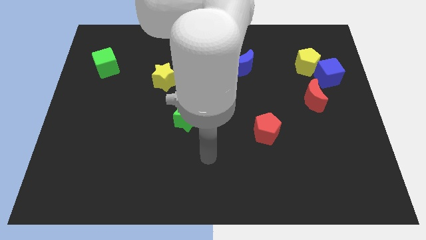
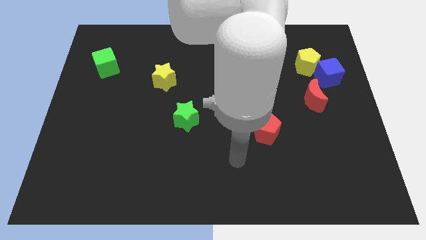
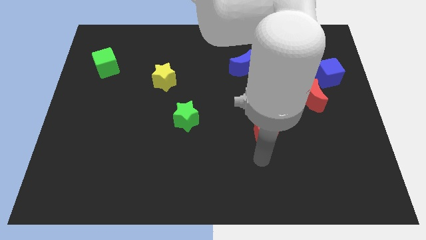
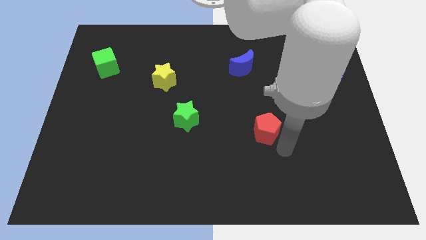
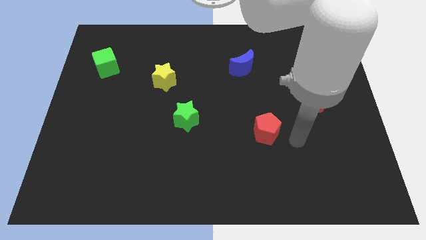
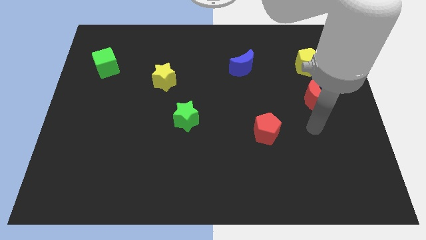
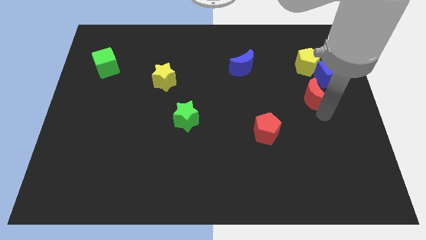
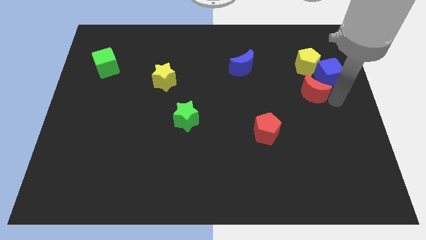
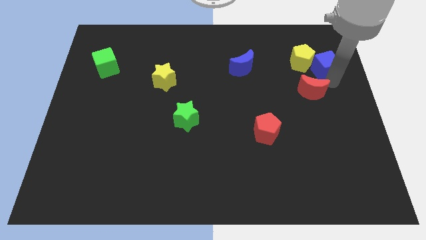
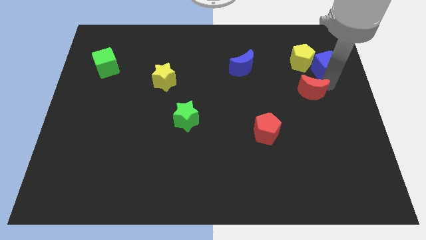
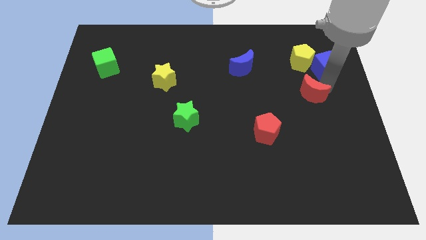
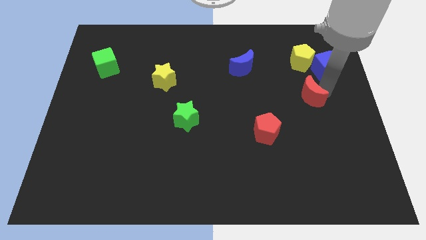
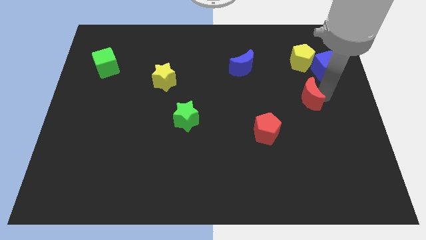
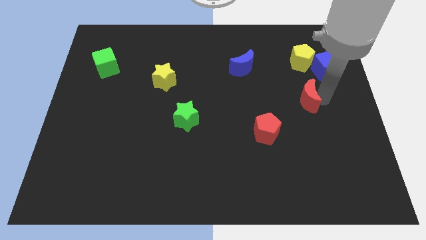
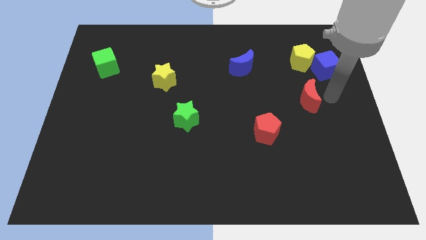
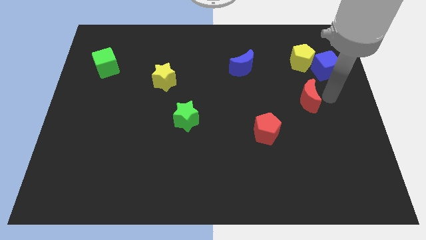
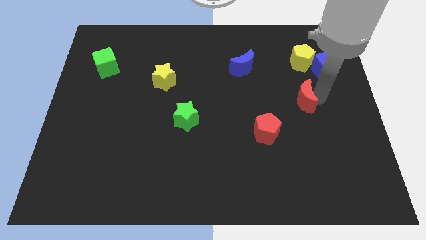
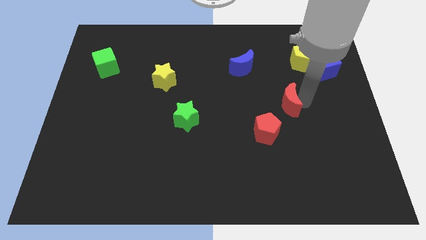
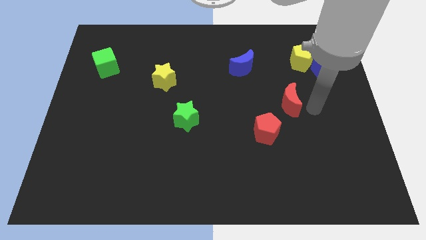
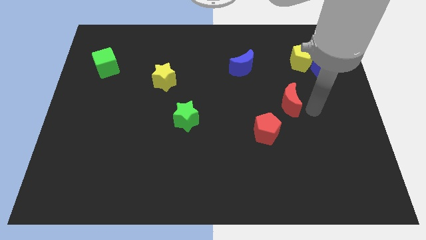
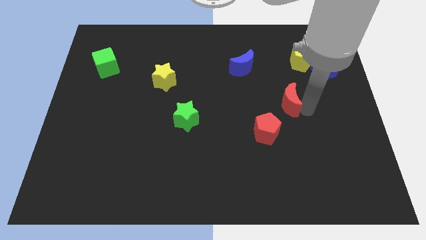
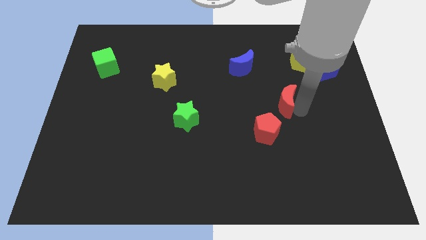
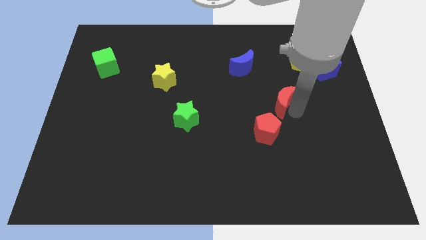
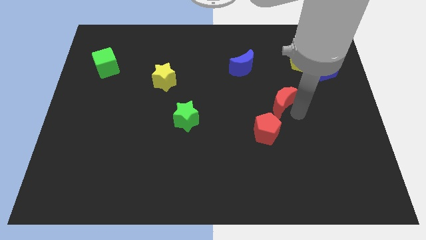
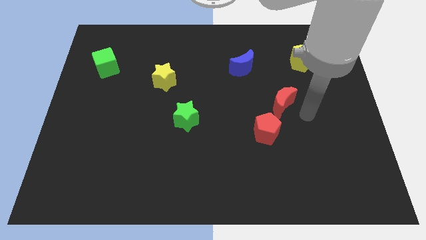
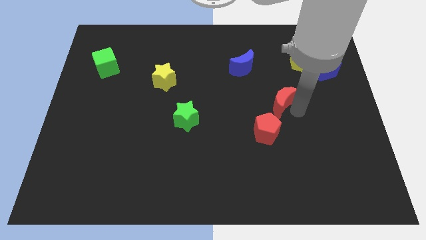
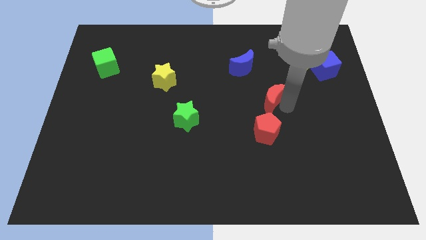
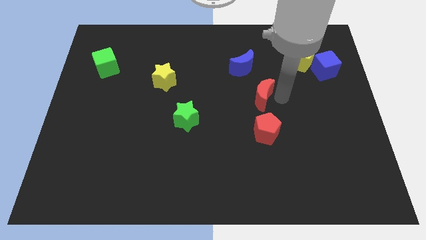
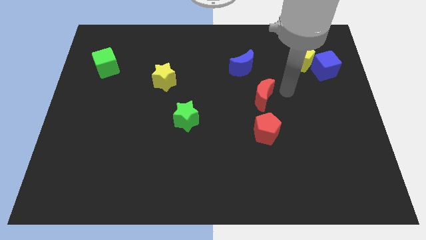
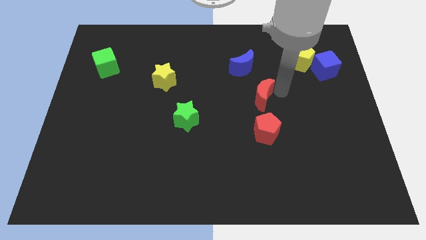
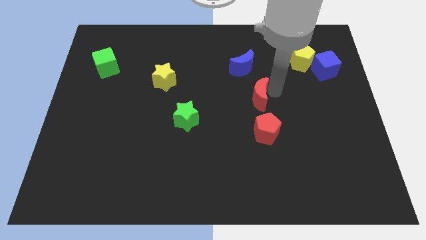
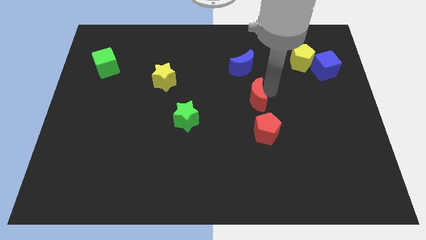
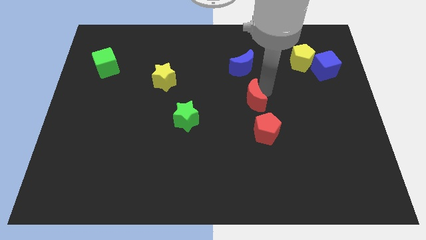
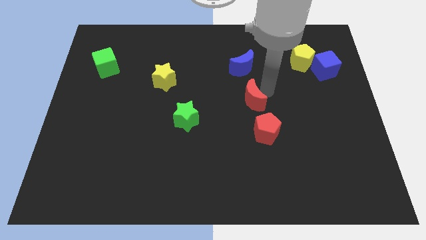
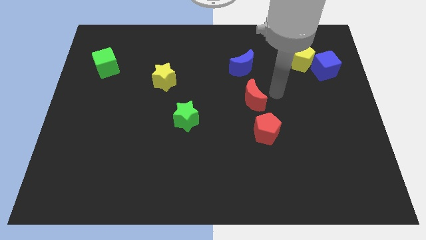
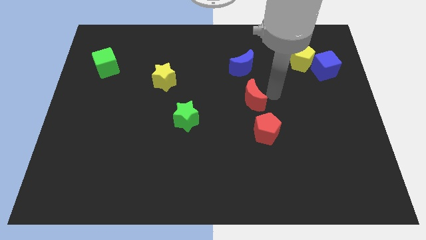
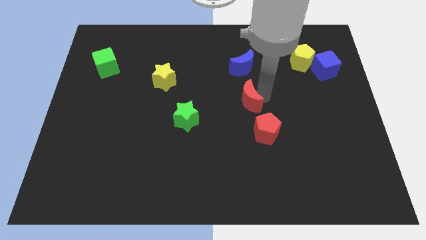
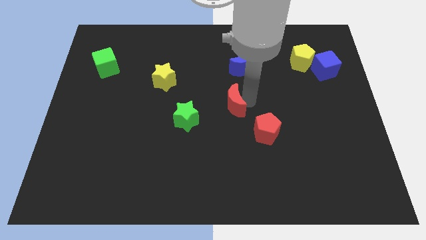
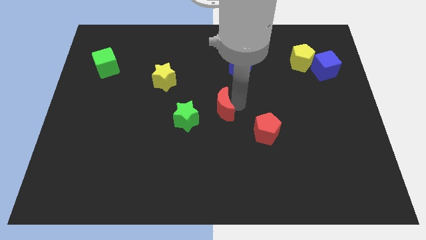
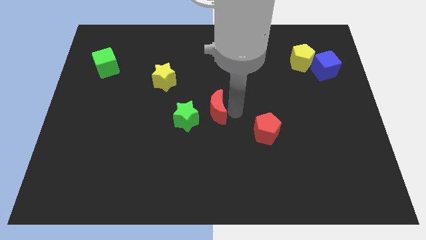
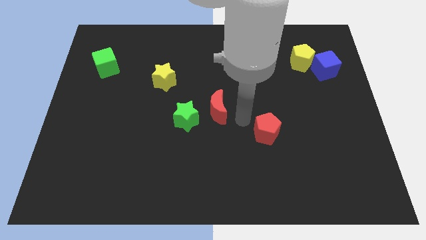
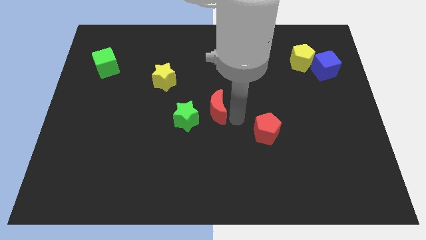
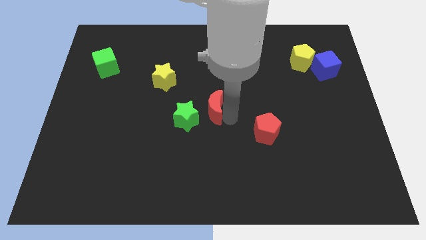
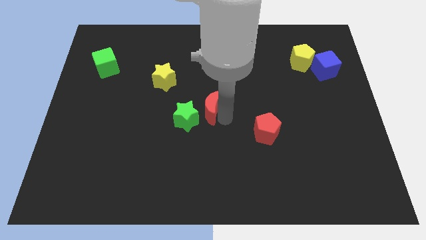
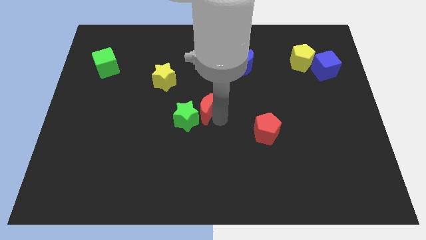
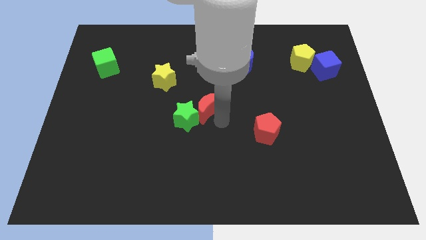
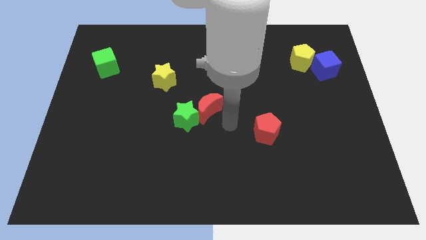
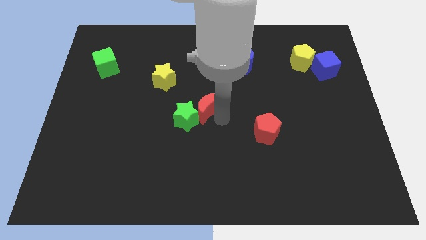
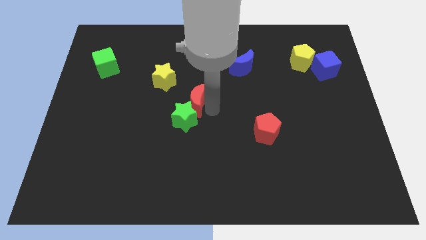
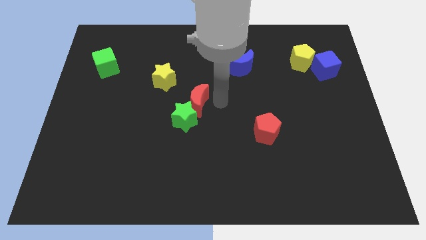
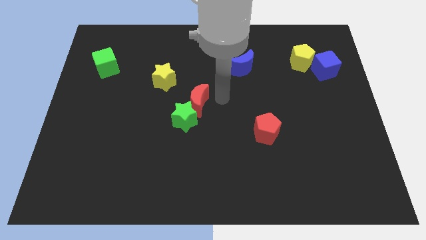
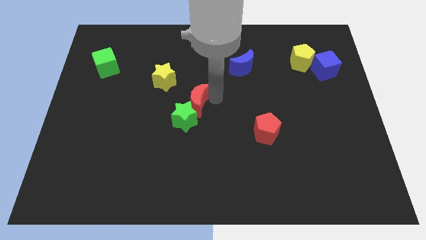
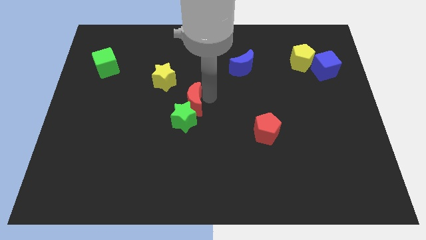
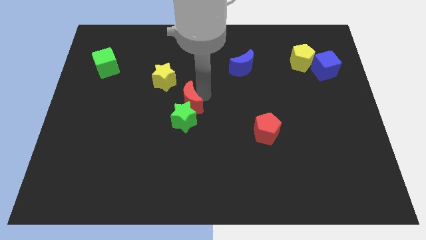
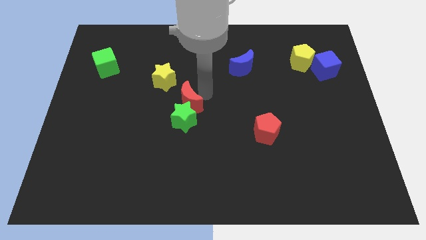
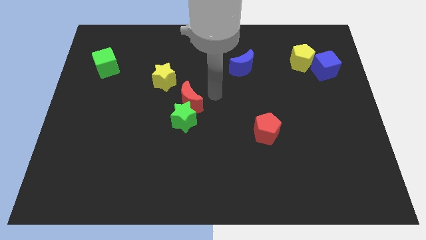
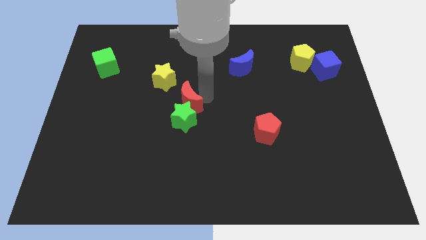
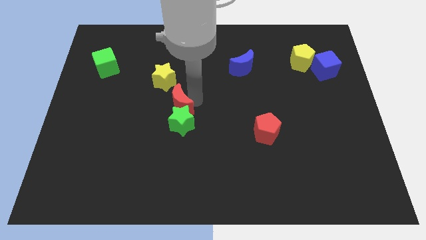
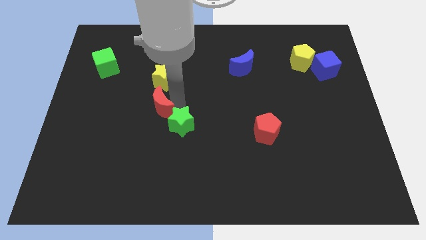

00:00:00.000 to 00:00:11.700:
move the red moon just left of the green star

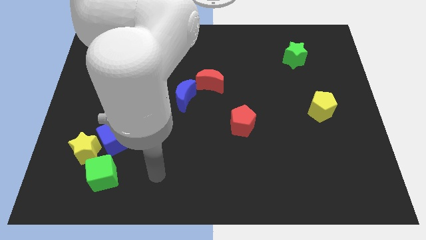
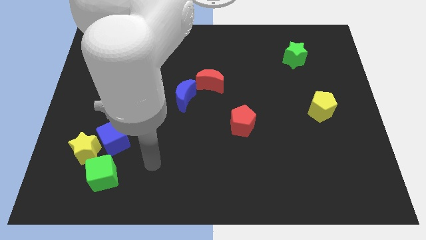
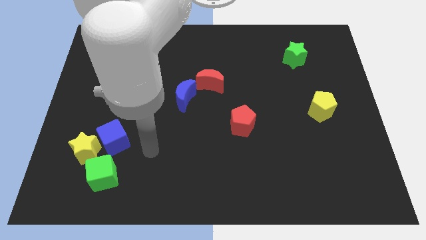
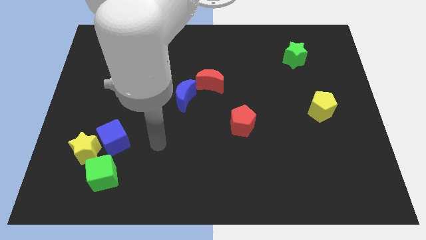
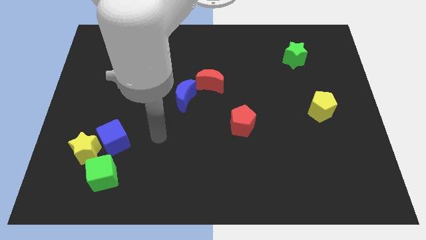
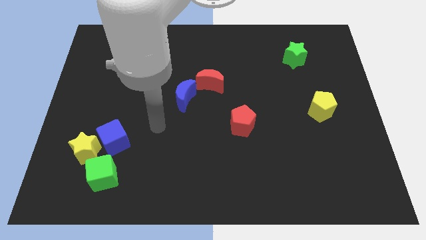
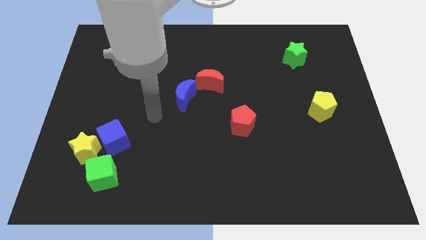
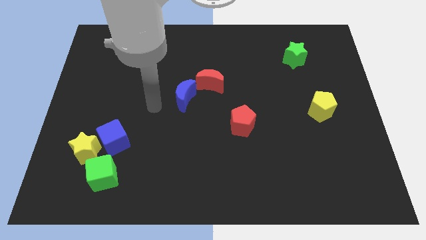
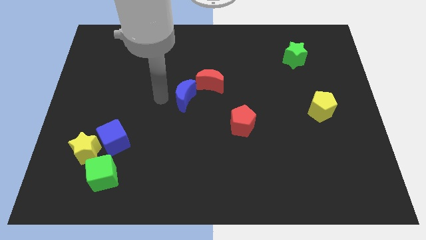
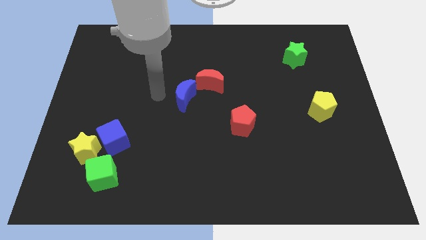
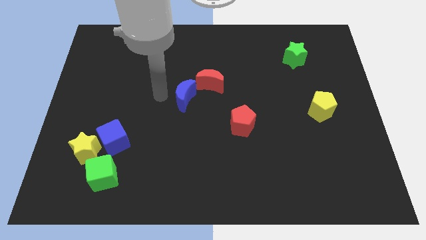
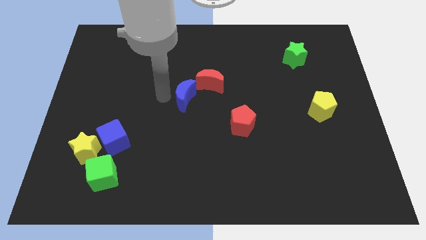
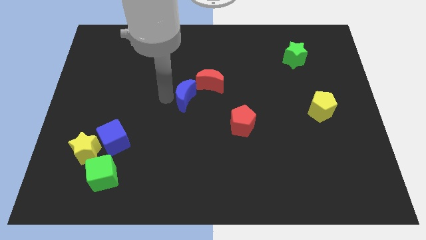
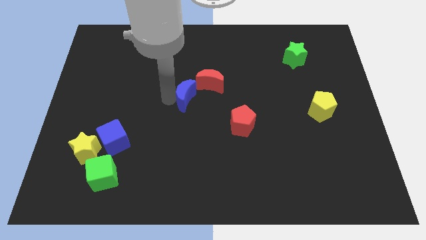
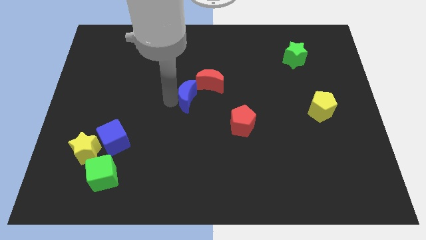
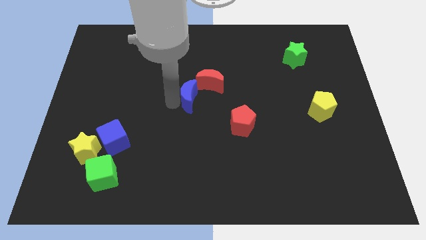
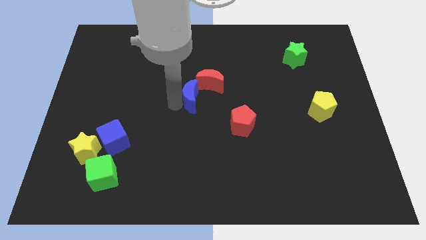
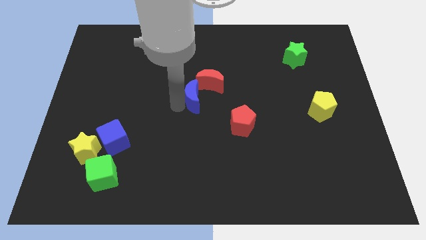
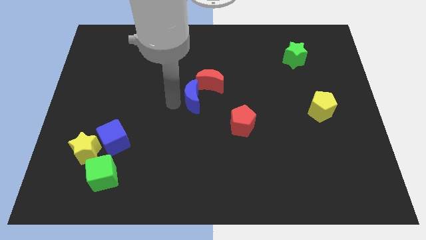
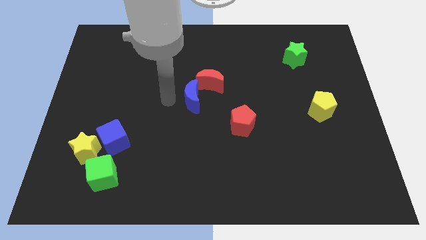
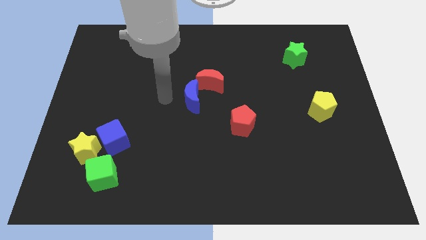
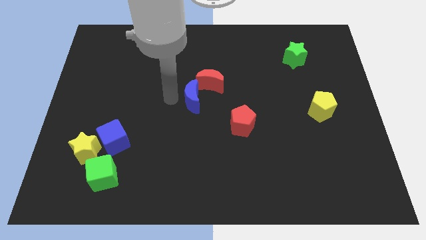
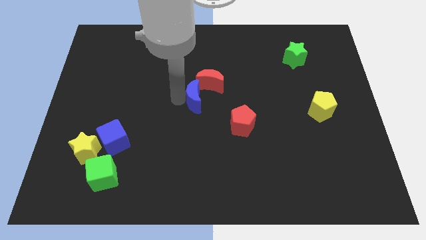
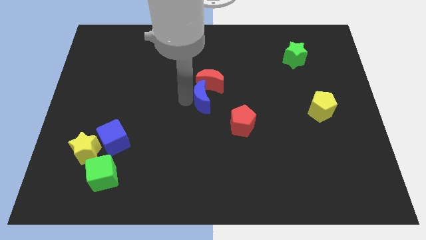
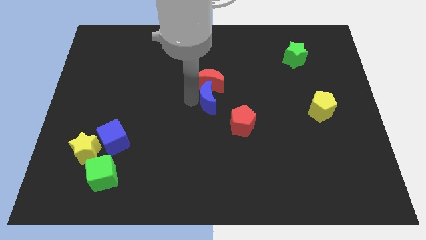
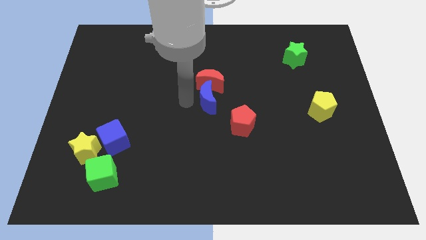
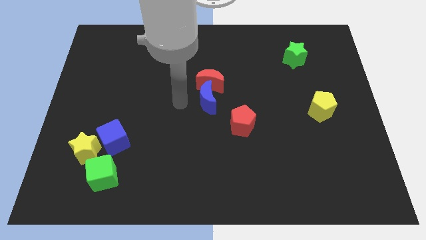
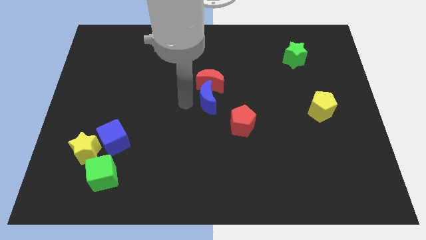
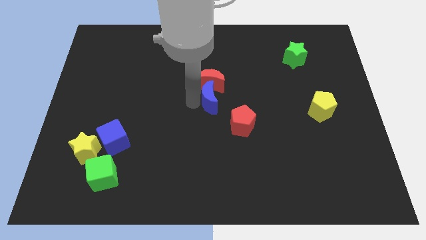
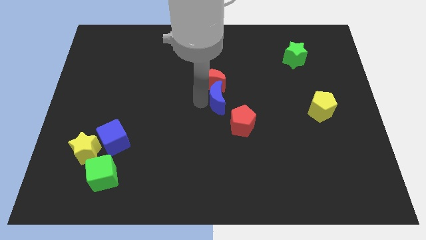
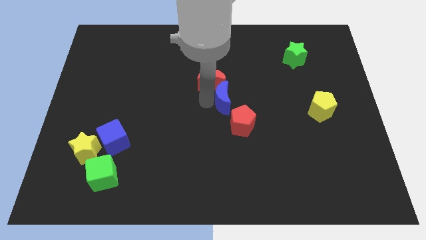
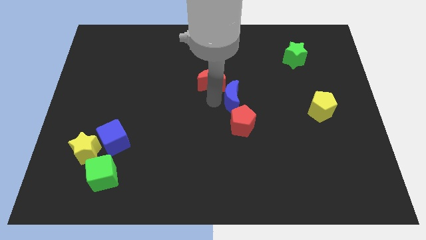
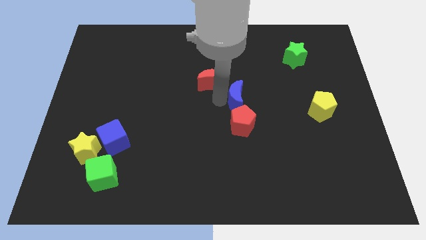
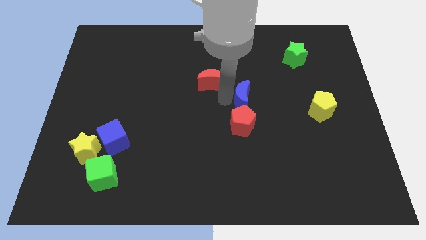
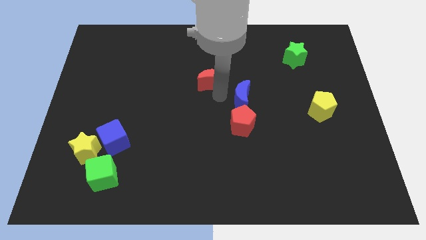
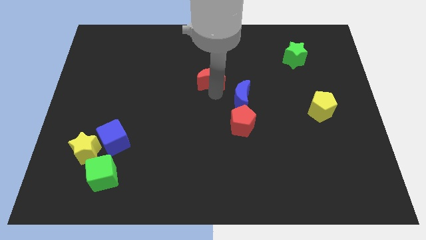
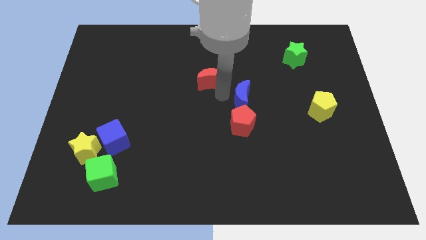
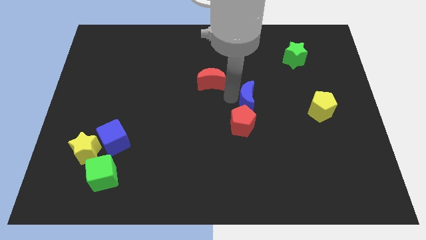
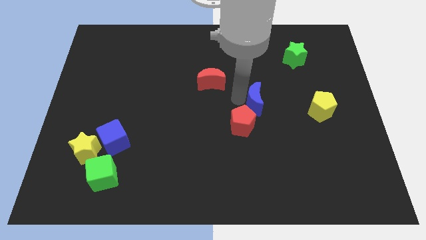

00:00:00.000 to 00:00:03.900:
put the blue moon to the left of the yellow pentagon
